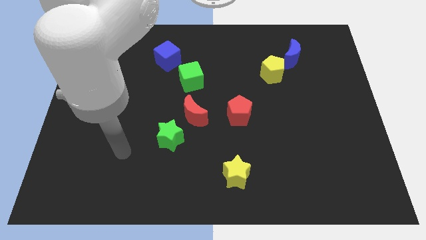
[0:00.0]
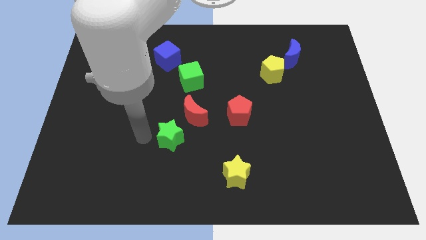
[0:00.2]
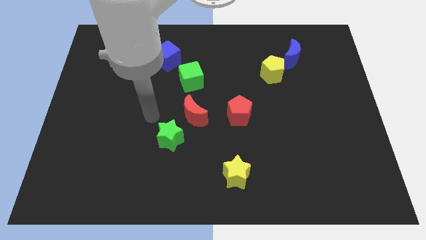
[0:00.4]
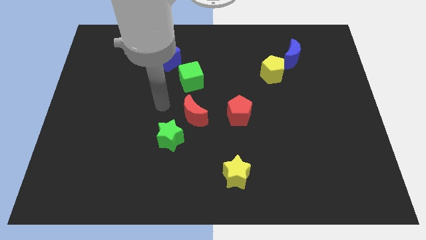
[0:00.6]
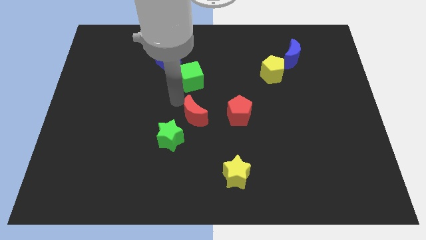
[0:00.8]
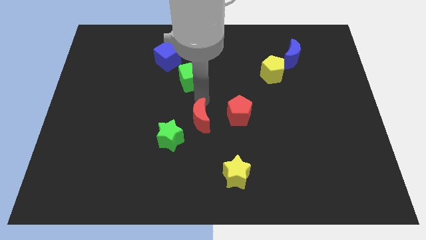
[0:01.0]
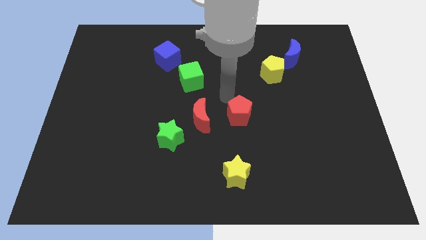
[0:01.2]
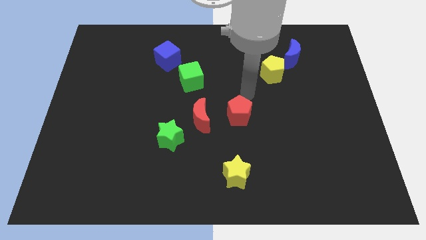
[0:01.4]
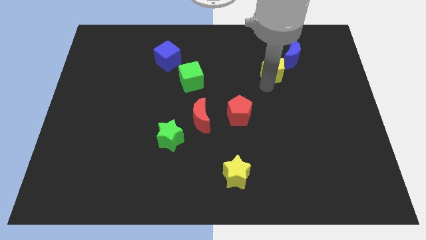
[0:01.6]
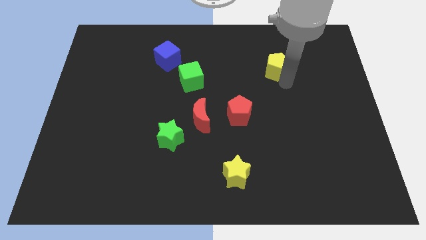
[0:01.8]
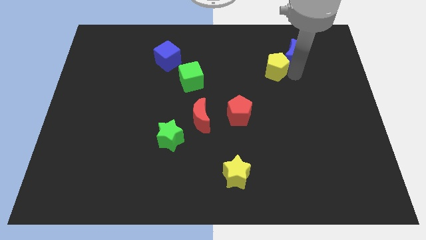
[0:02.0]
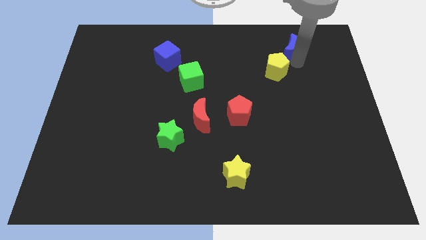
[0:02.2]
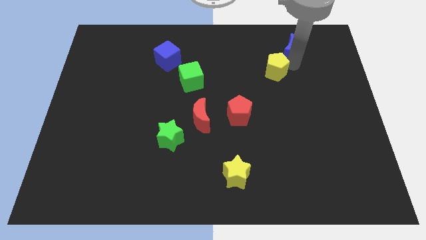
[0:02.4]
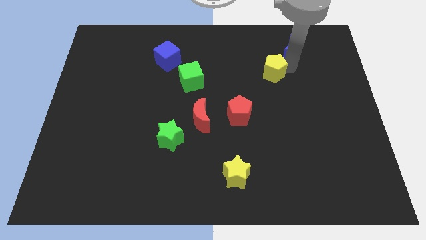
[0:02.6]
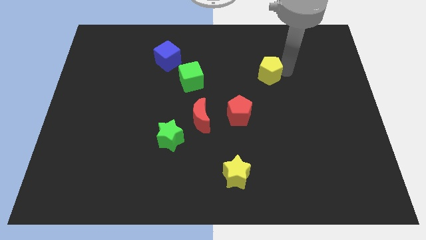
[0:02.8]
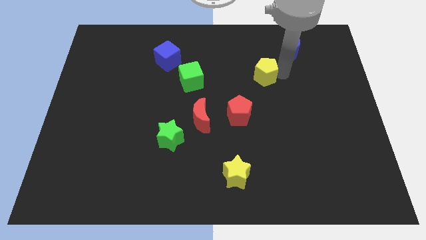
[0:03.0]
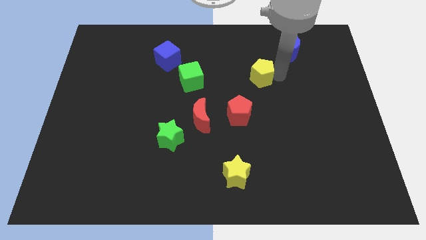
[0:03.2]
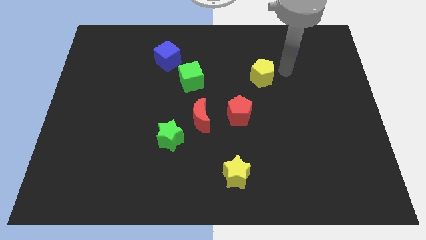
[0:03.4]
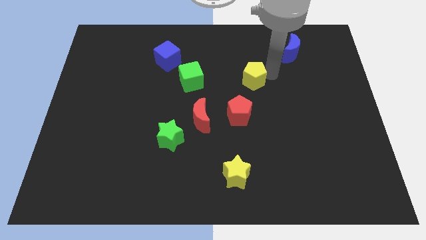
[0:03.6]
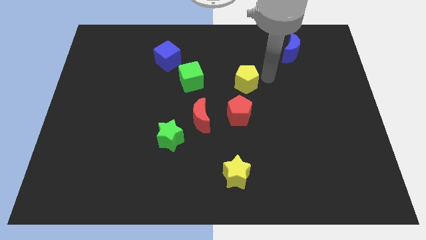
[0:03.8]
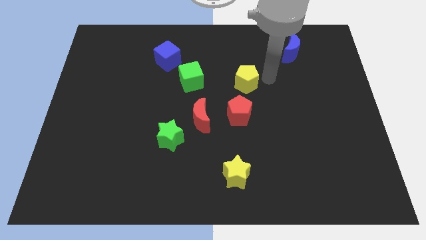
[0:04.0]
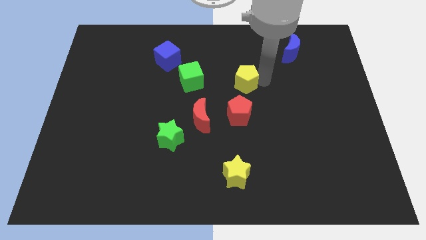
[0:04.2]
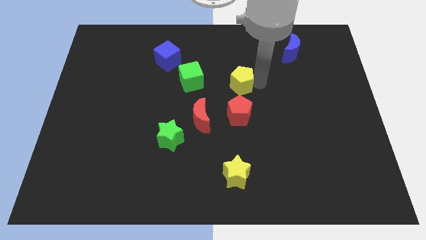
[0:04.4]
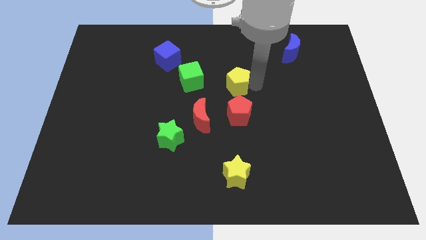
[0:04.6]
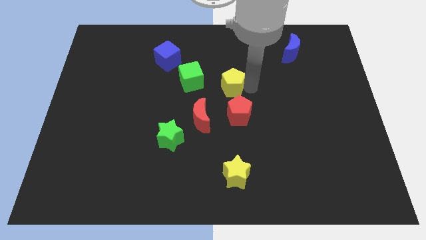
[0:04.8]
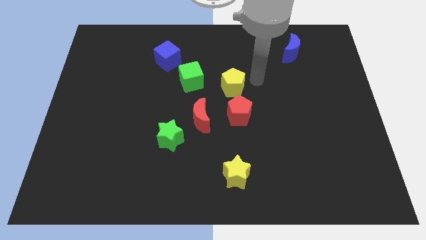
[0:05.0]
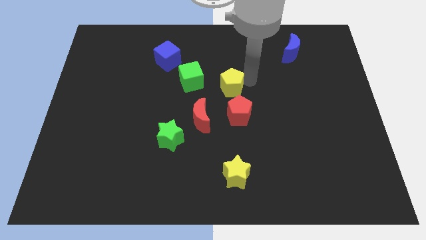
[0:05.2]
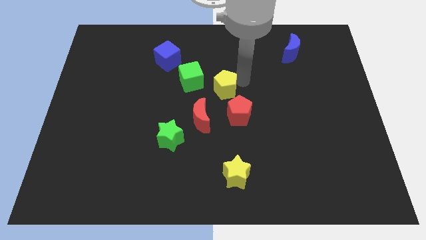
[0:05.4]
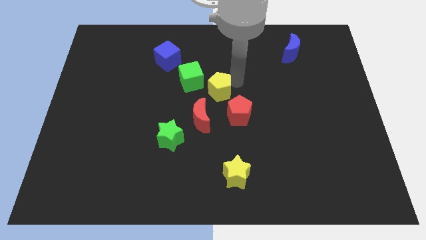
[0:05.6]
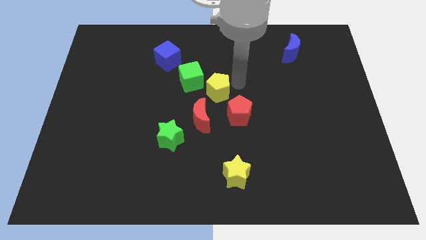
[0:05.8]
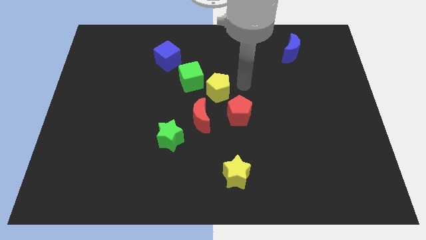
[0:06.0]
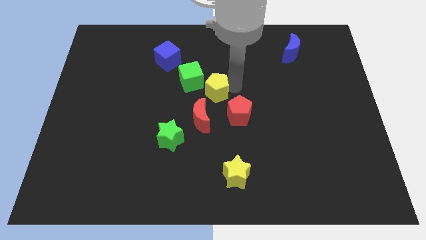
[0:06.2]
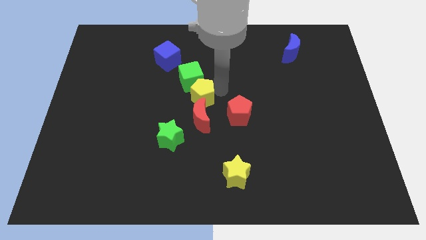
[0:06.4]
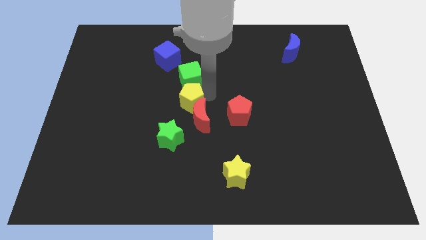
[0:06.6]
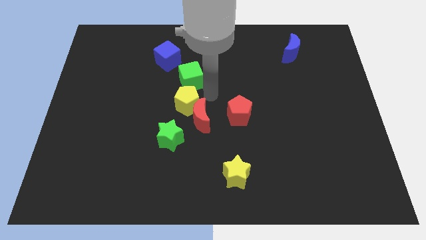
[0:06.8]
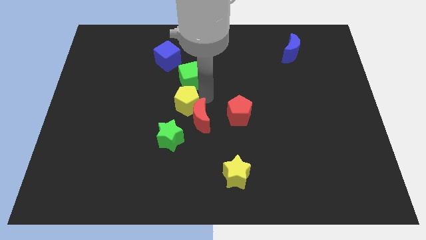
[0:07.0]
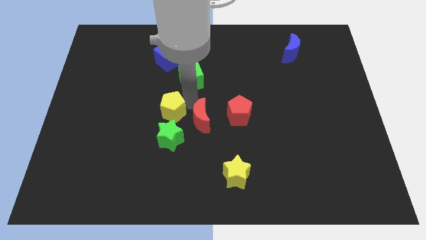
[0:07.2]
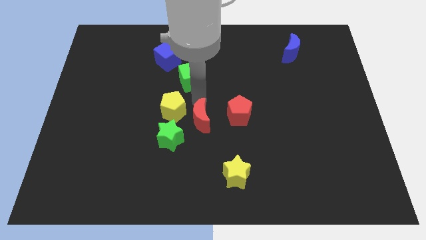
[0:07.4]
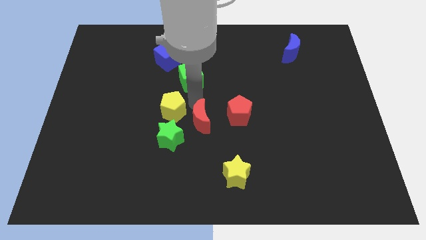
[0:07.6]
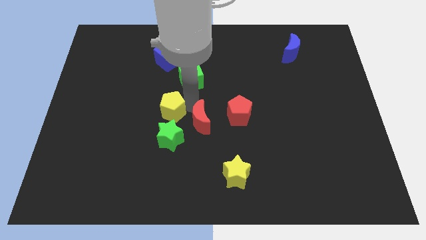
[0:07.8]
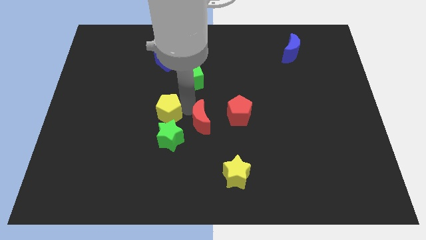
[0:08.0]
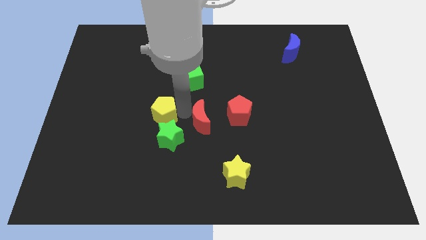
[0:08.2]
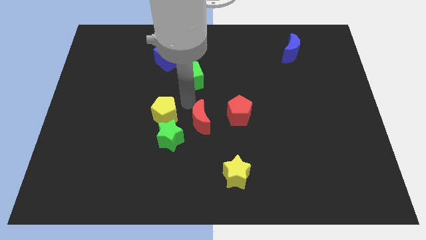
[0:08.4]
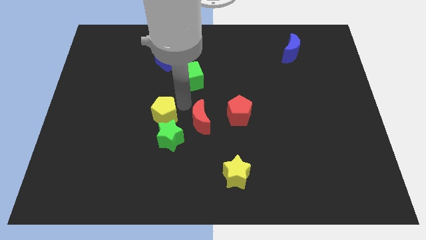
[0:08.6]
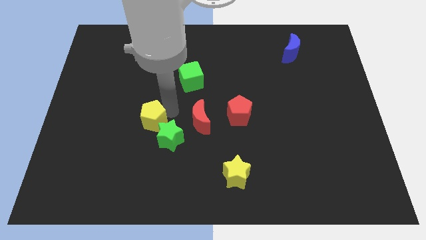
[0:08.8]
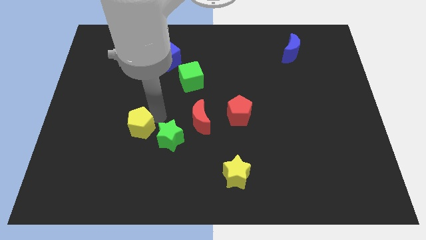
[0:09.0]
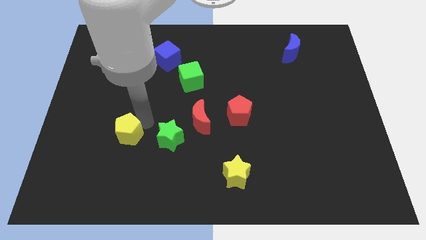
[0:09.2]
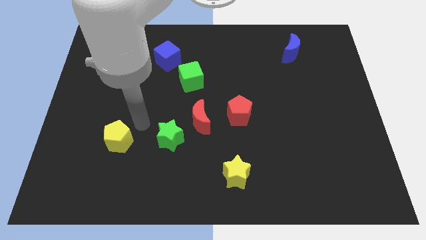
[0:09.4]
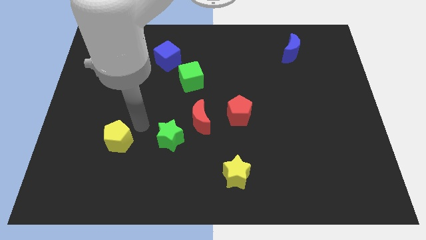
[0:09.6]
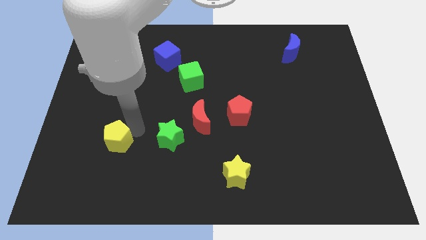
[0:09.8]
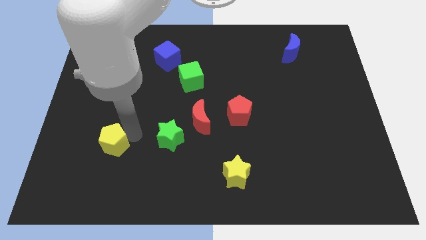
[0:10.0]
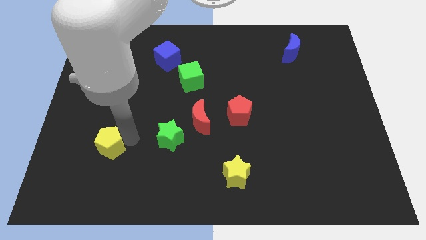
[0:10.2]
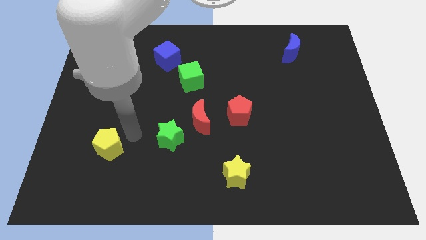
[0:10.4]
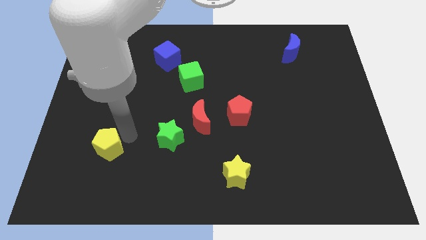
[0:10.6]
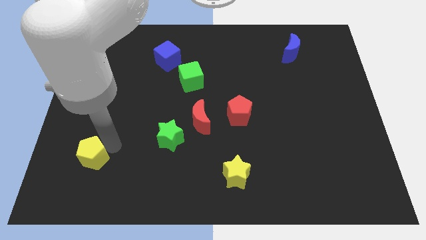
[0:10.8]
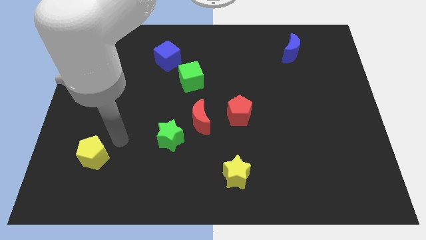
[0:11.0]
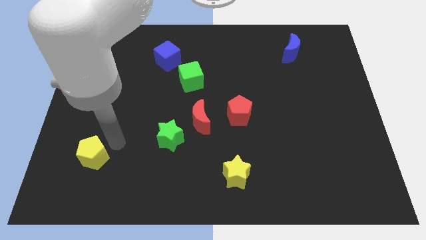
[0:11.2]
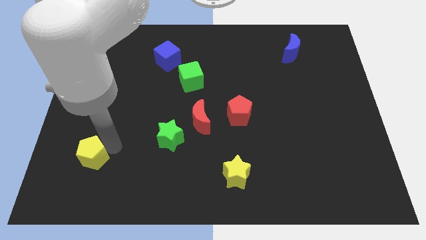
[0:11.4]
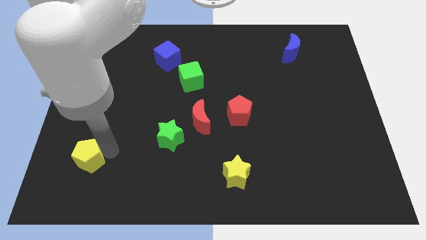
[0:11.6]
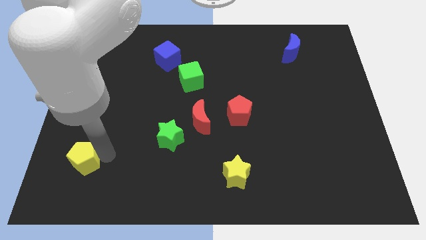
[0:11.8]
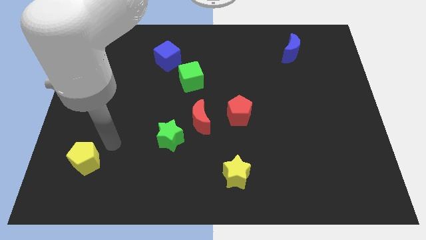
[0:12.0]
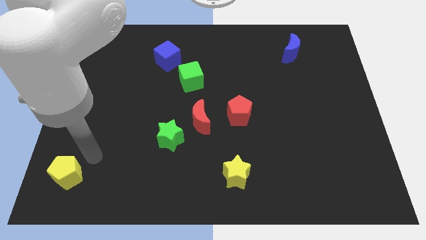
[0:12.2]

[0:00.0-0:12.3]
push the yellow pentagon to the bottom left
